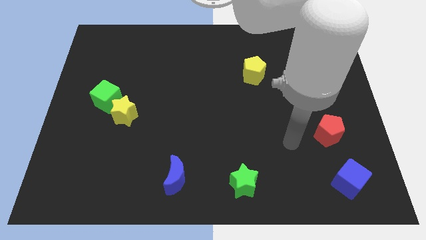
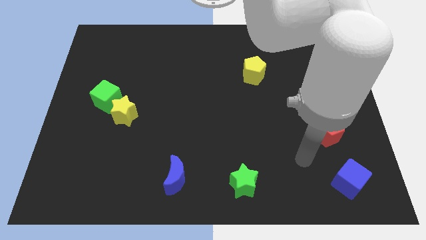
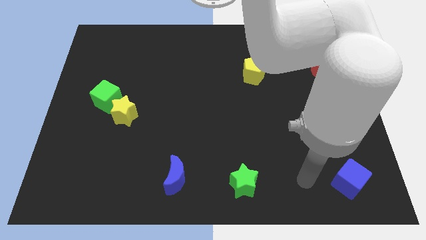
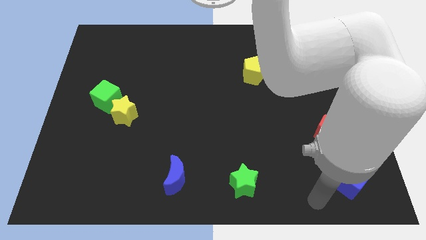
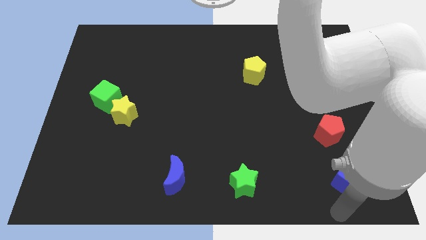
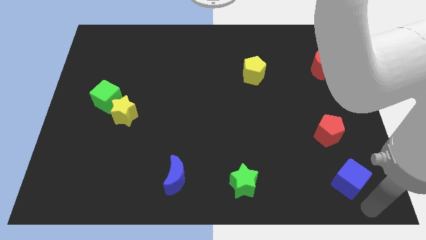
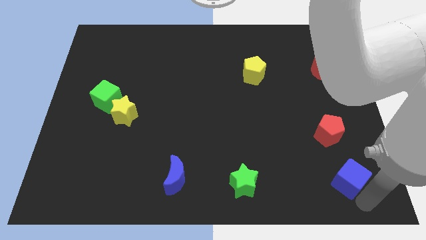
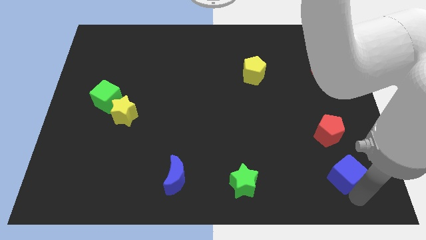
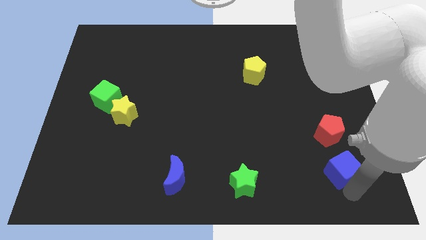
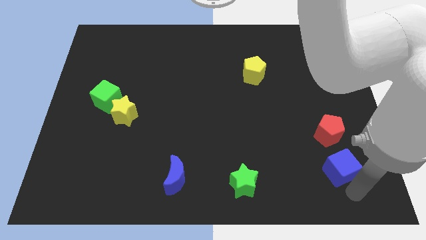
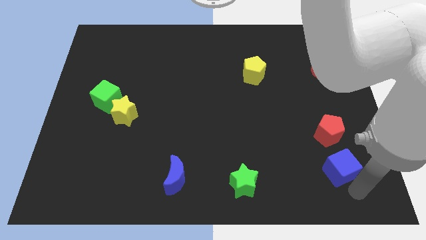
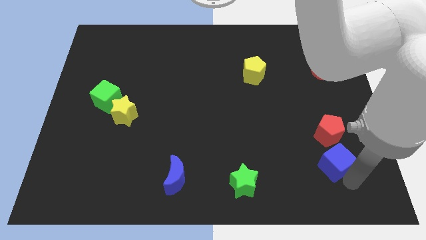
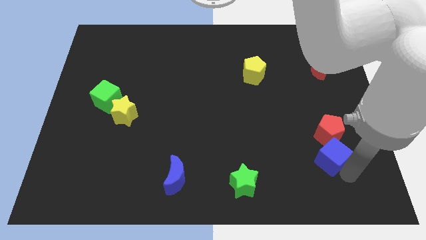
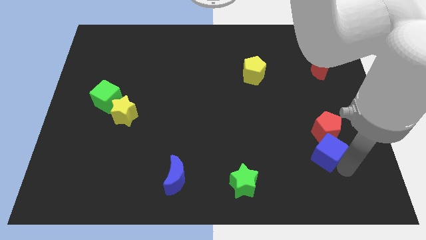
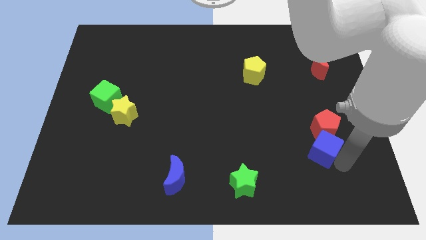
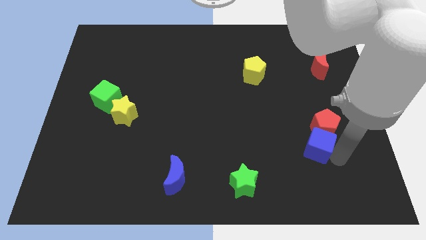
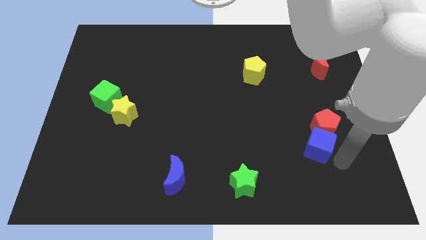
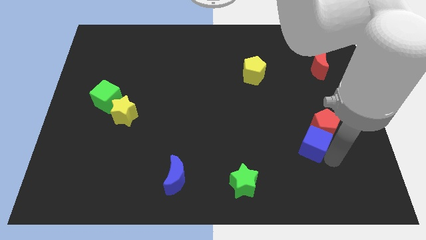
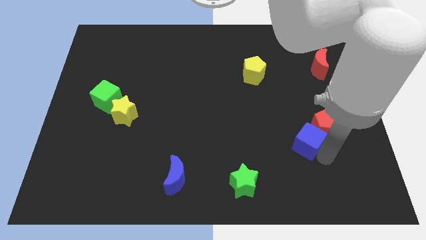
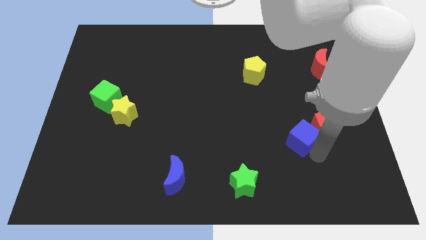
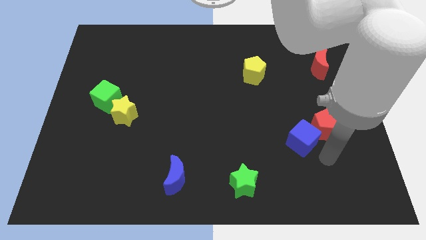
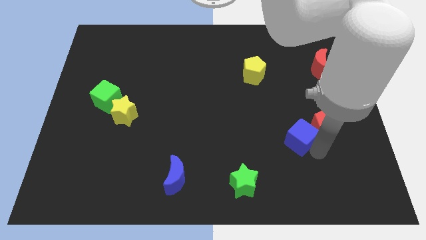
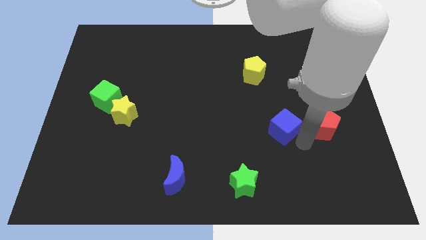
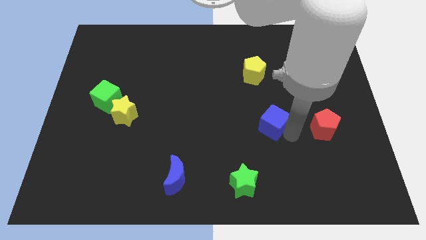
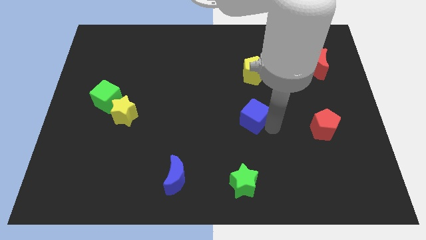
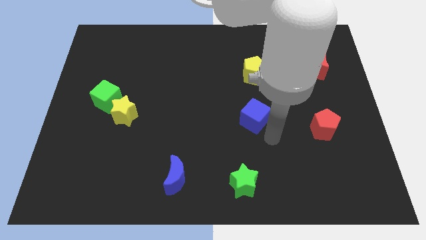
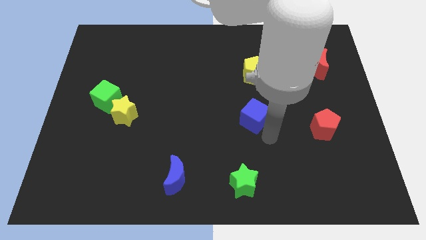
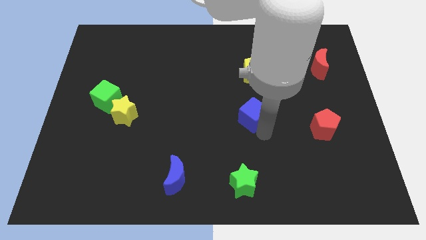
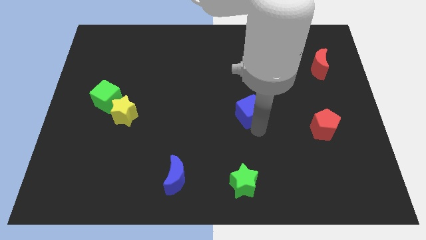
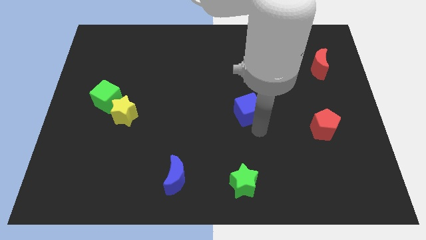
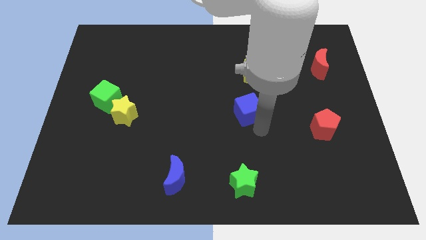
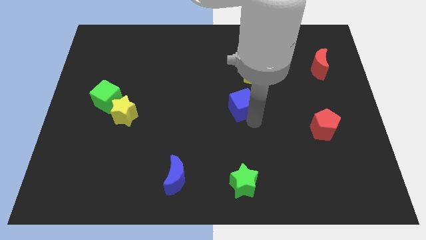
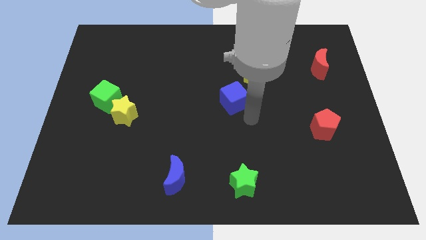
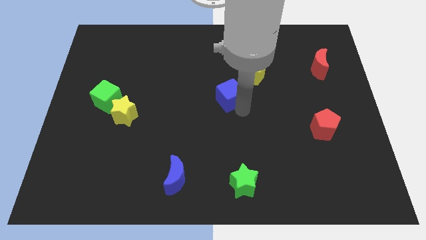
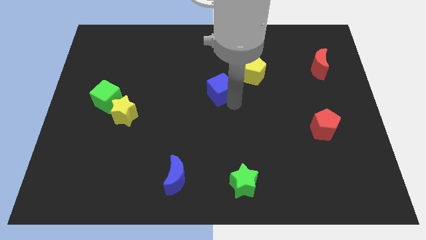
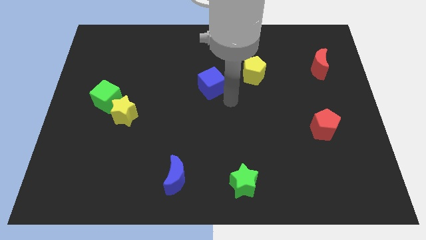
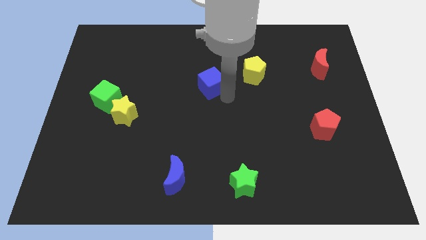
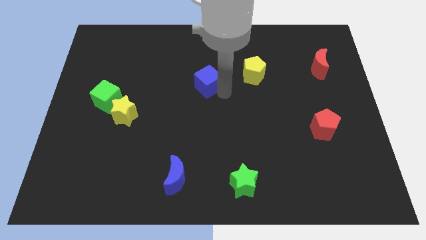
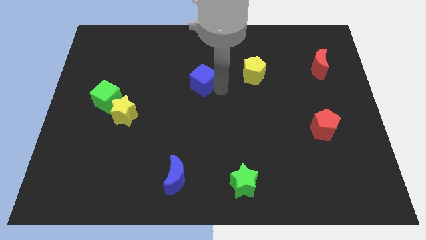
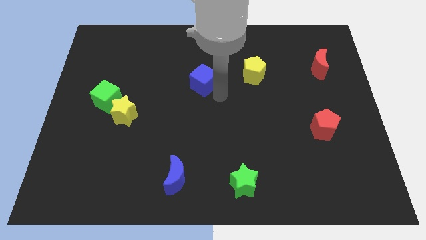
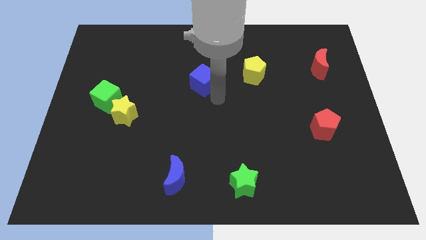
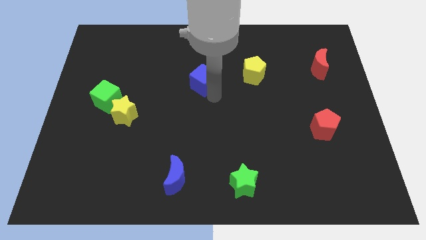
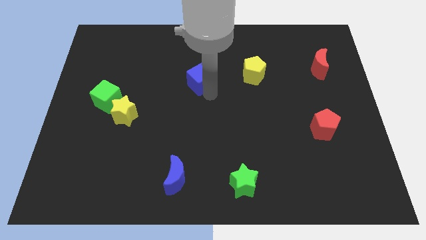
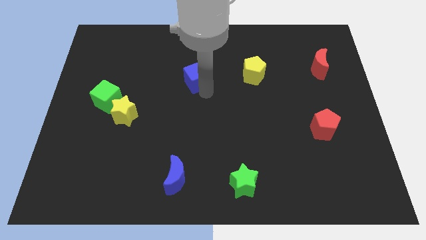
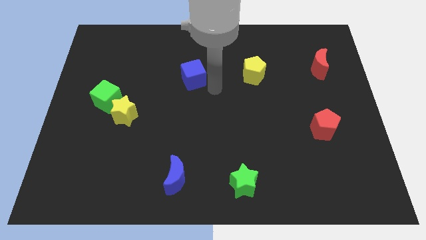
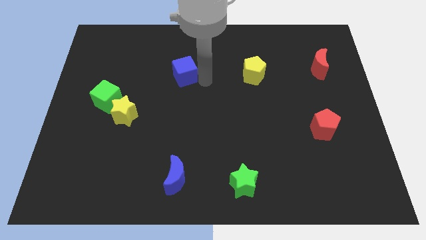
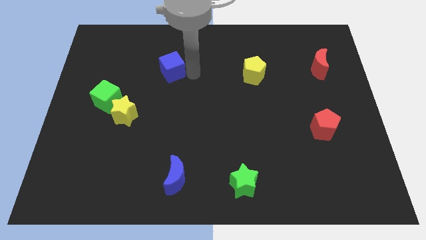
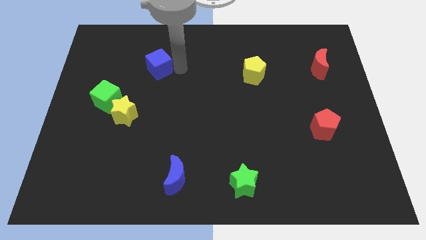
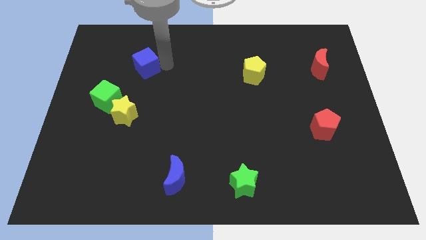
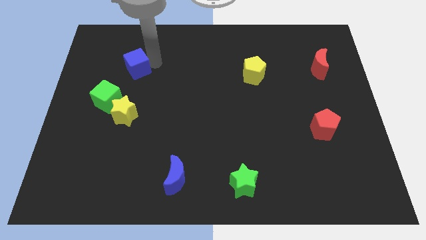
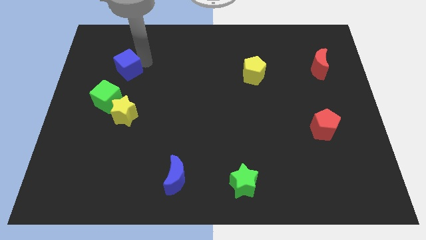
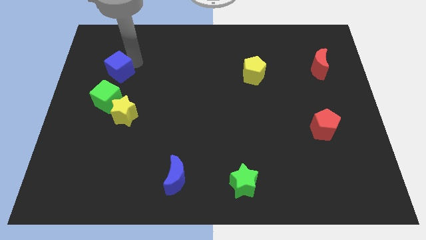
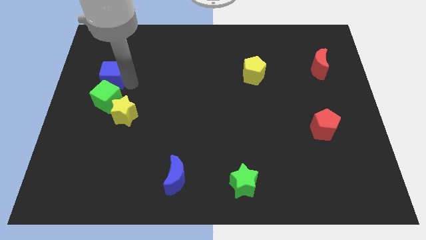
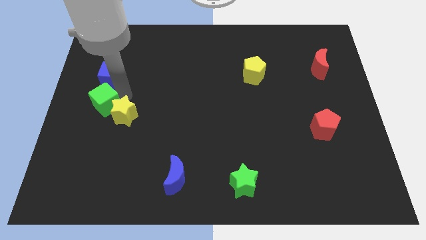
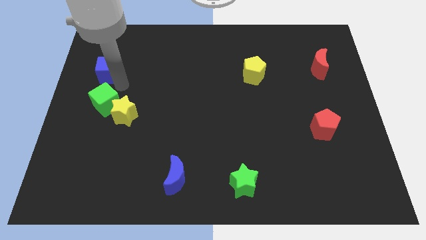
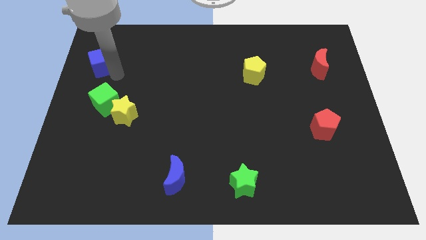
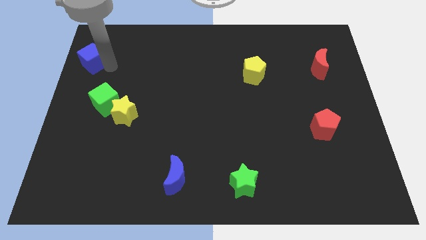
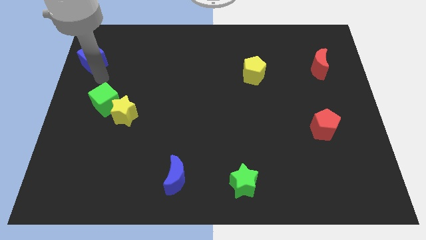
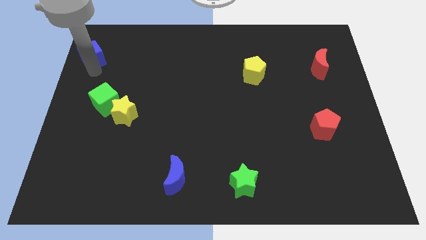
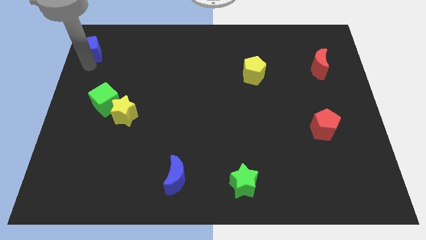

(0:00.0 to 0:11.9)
slide the blue cube to the upper left corner

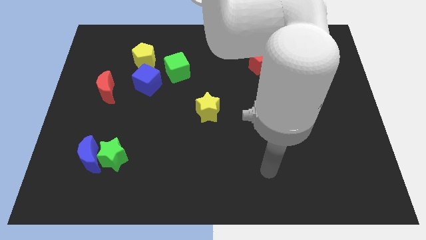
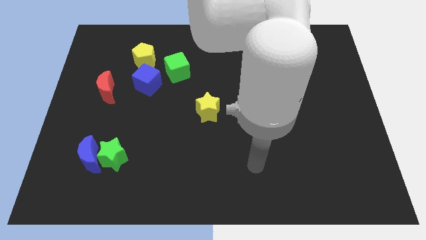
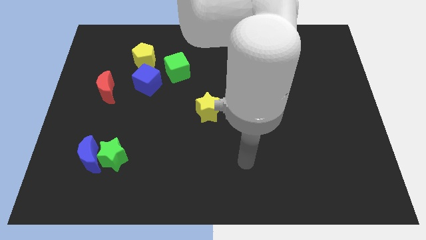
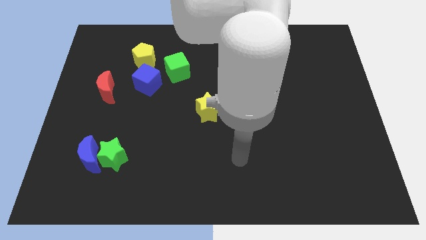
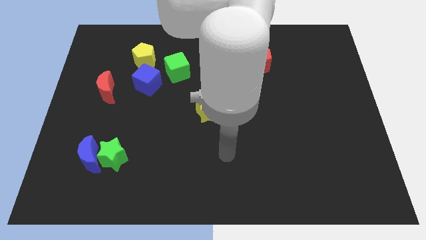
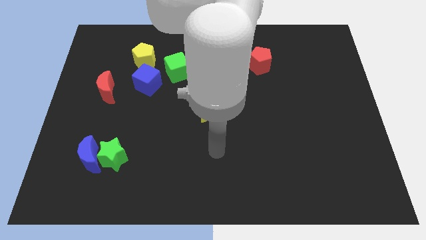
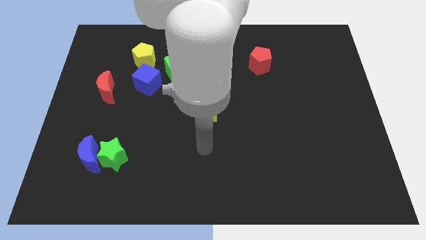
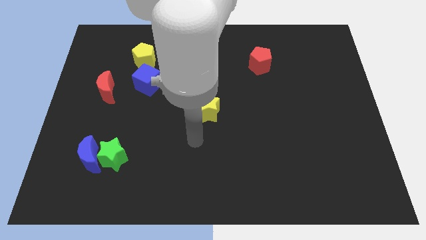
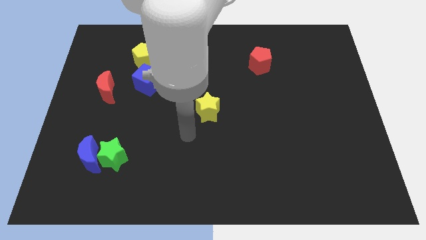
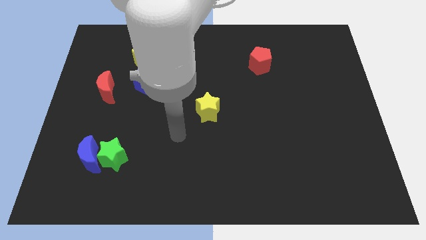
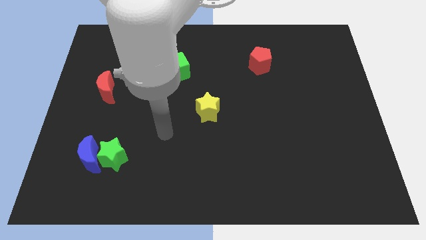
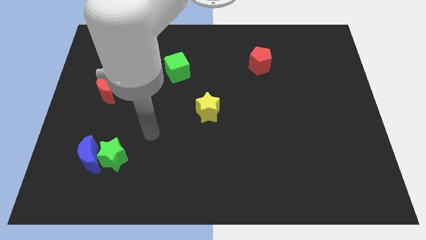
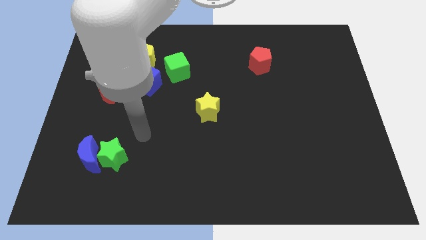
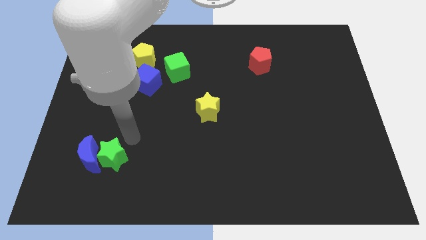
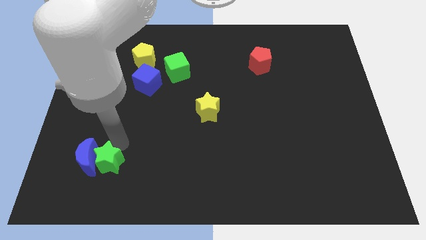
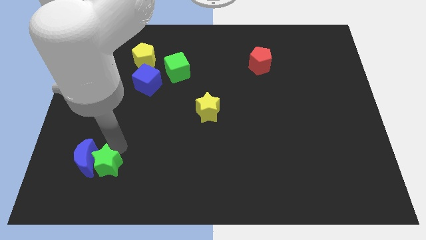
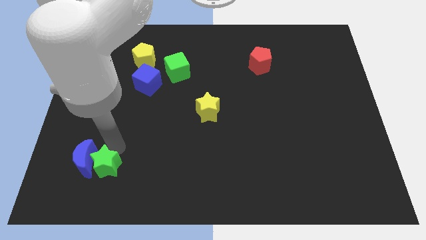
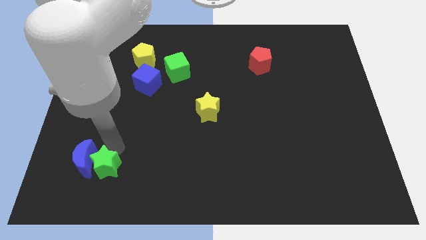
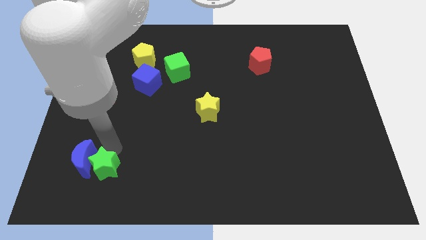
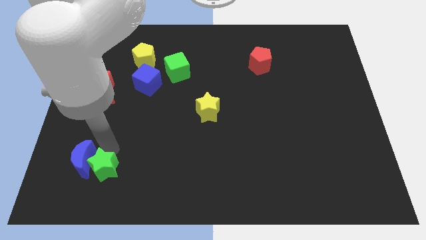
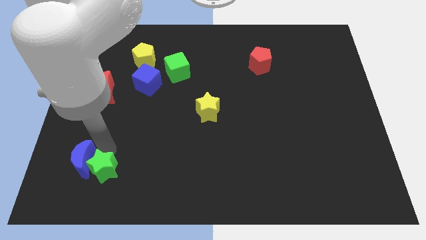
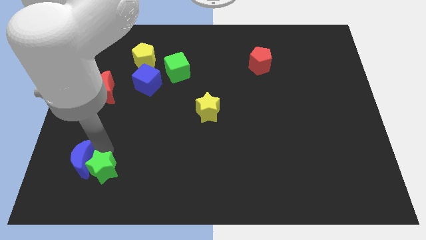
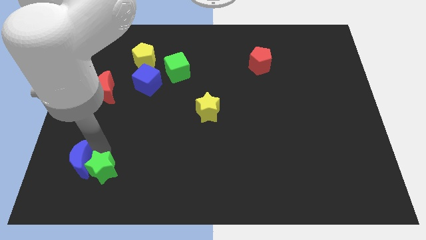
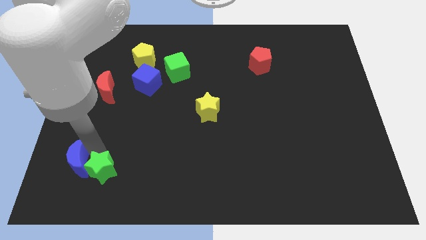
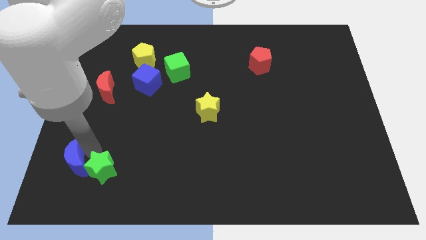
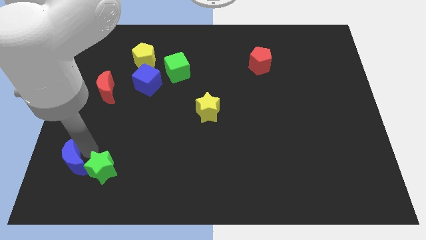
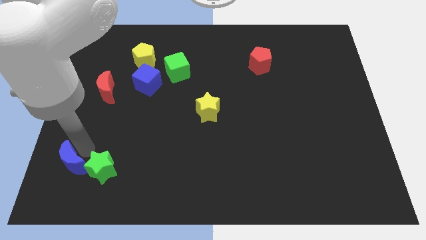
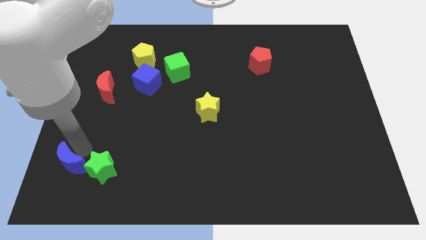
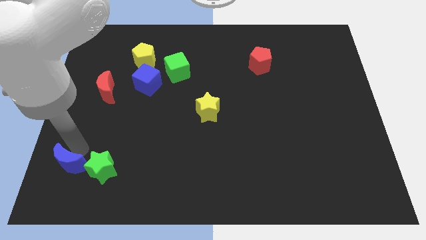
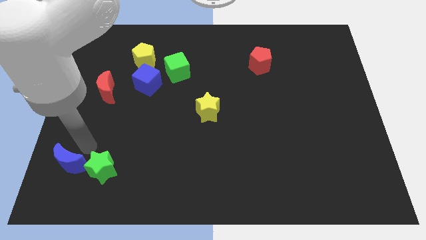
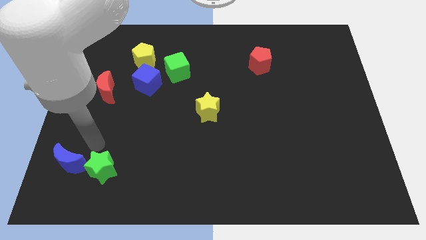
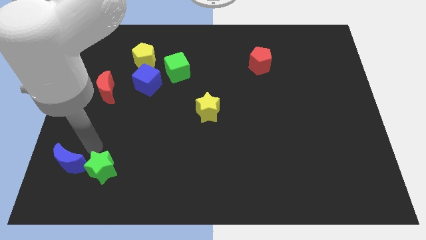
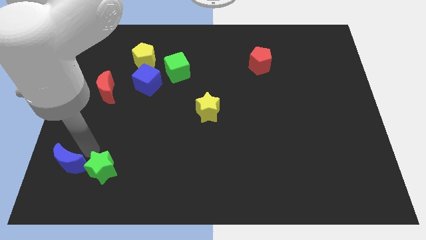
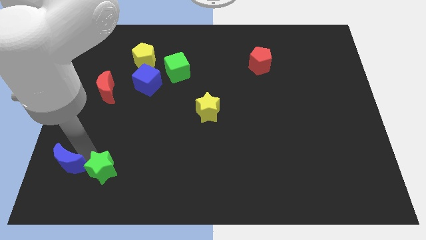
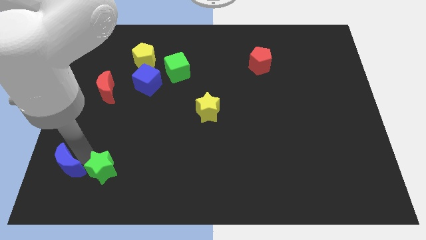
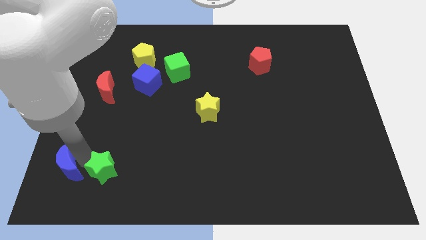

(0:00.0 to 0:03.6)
move the blue moon to the bottom left
